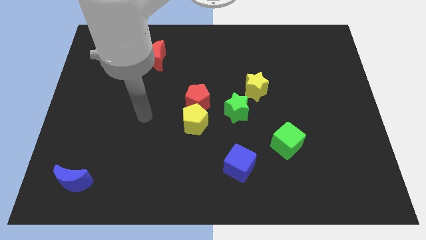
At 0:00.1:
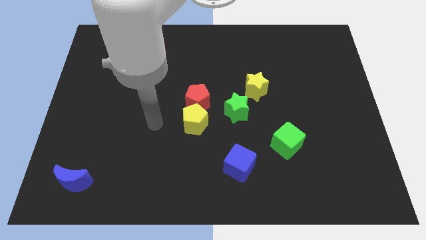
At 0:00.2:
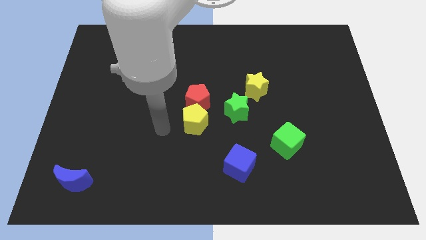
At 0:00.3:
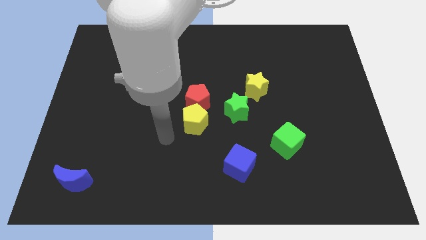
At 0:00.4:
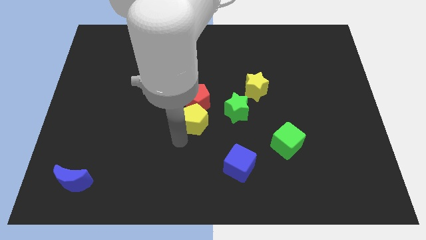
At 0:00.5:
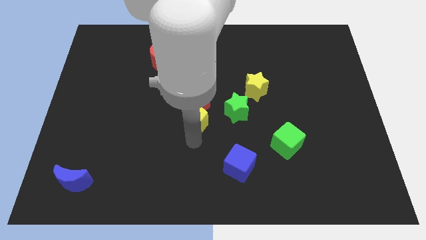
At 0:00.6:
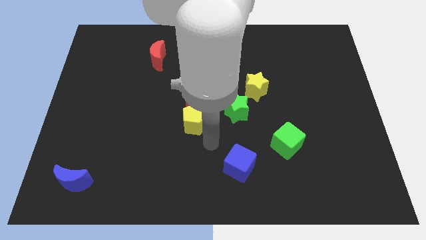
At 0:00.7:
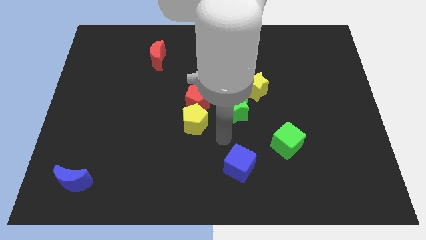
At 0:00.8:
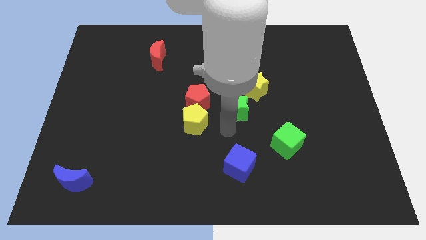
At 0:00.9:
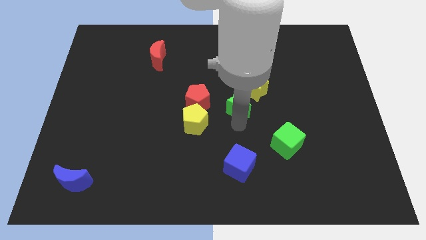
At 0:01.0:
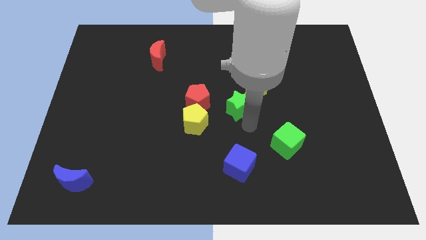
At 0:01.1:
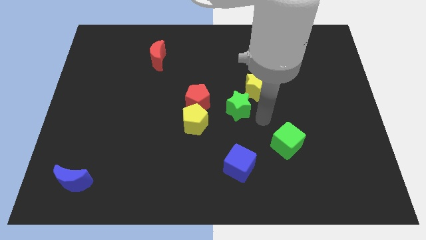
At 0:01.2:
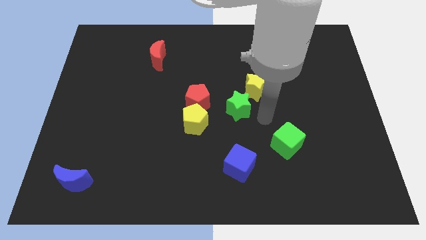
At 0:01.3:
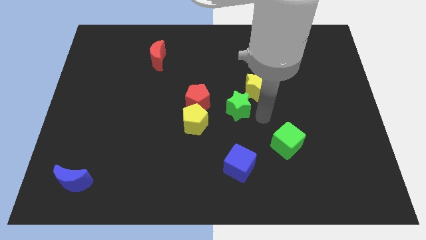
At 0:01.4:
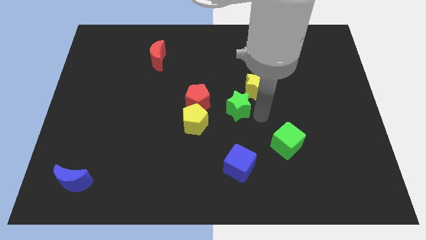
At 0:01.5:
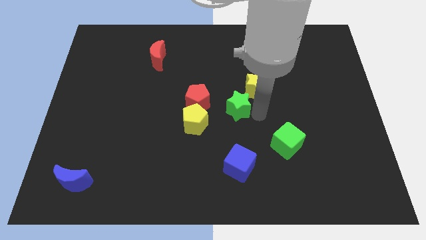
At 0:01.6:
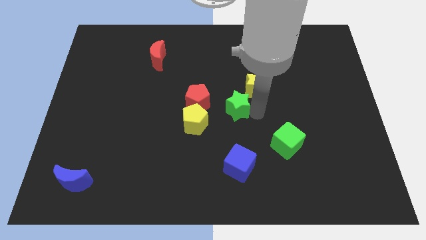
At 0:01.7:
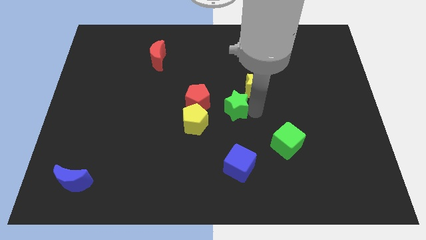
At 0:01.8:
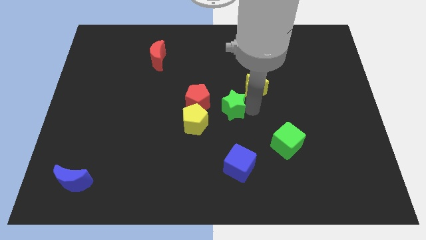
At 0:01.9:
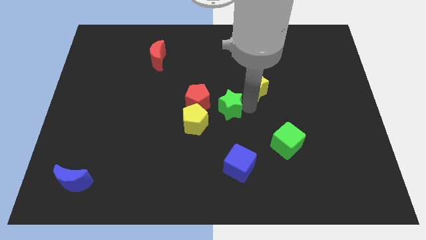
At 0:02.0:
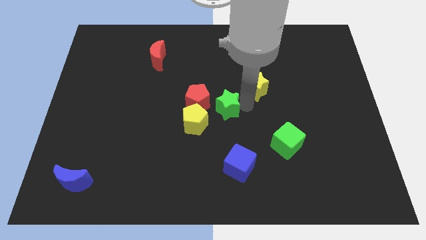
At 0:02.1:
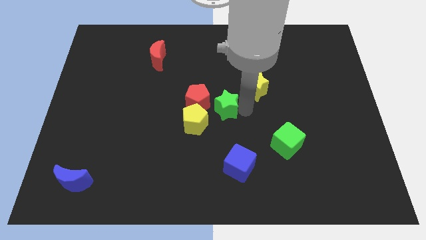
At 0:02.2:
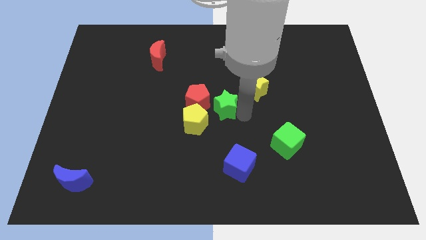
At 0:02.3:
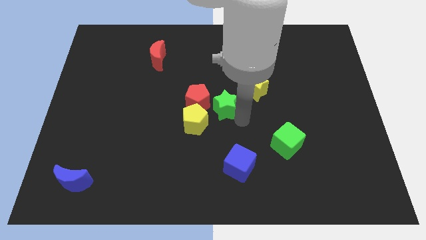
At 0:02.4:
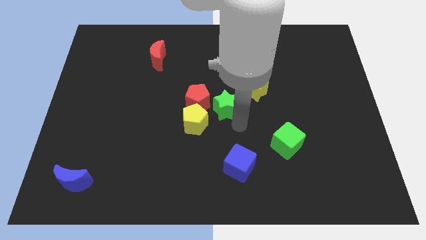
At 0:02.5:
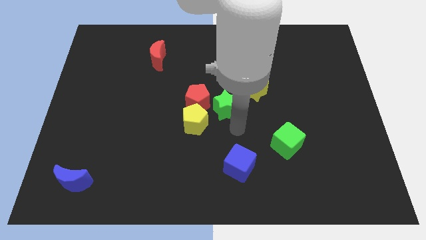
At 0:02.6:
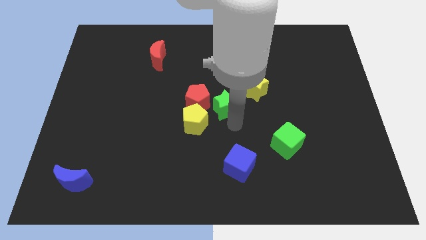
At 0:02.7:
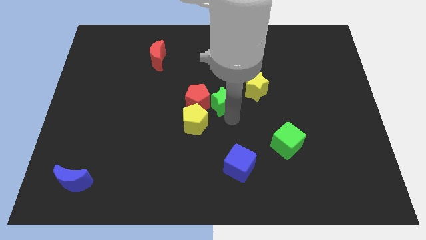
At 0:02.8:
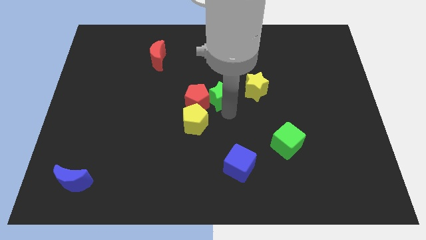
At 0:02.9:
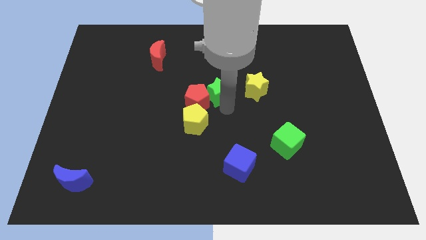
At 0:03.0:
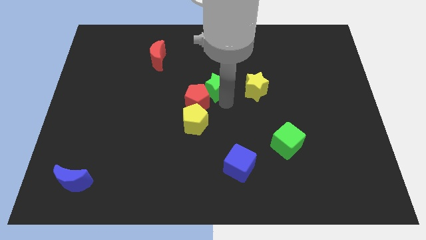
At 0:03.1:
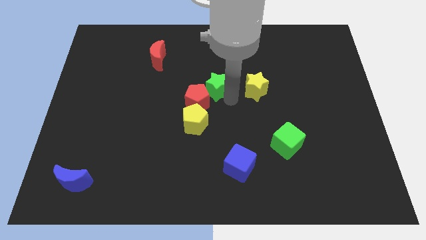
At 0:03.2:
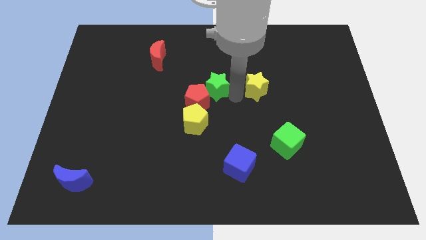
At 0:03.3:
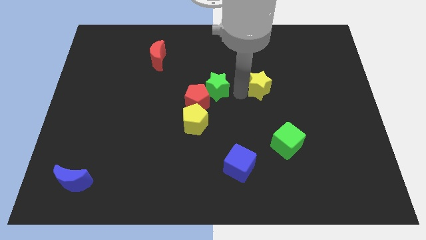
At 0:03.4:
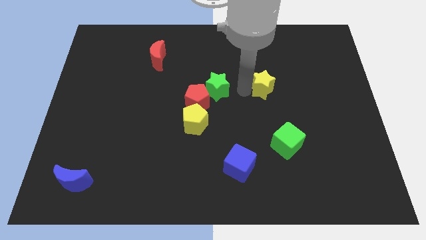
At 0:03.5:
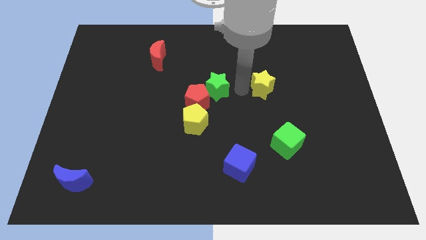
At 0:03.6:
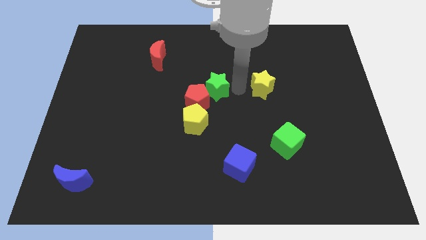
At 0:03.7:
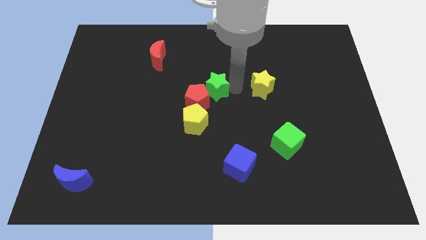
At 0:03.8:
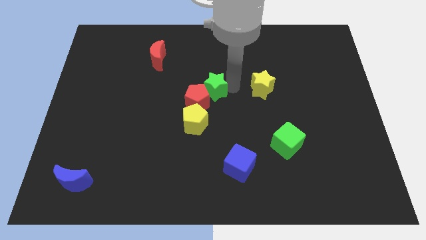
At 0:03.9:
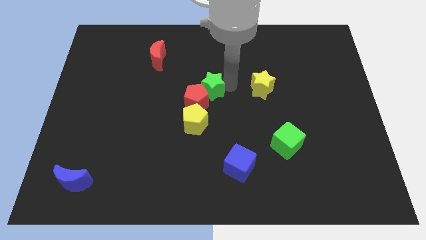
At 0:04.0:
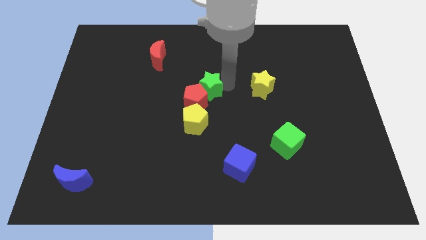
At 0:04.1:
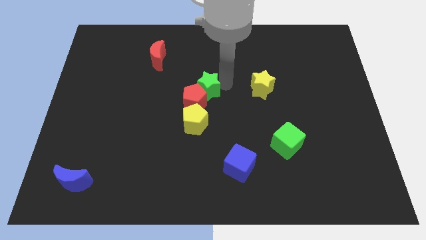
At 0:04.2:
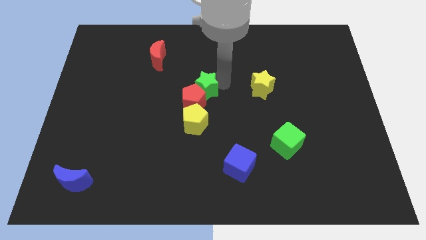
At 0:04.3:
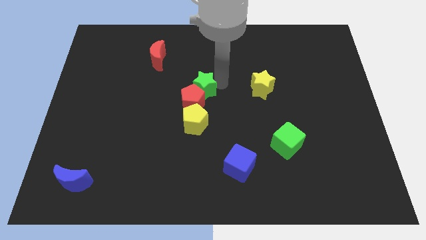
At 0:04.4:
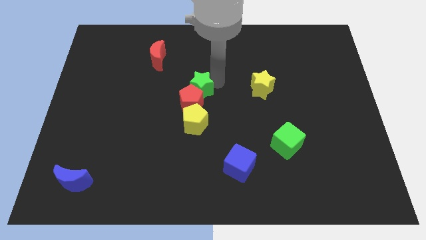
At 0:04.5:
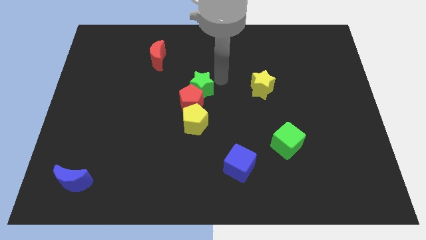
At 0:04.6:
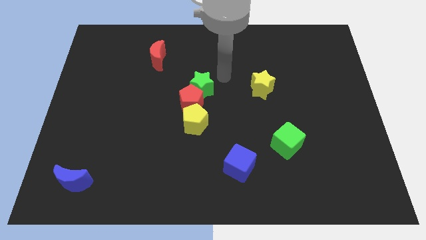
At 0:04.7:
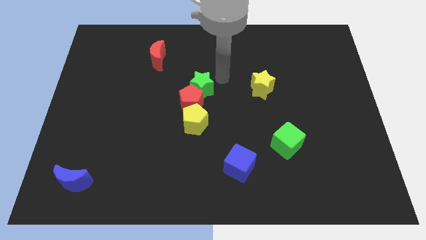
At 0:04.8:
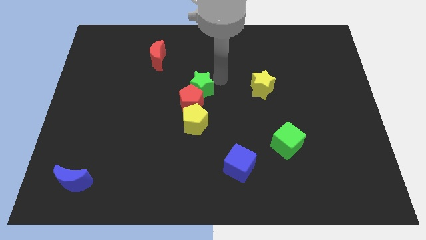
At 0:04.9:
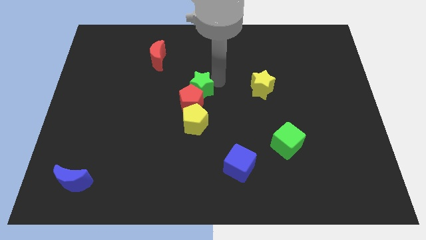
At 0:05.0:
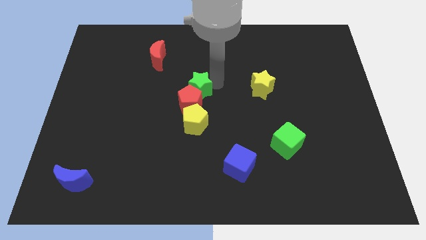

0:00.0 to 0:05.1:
slightly push the green star left

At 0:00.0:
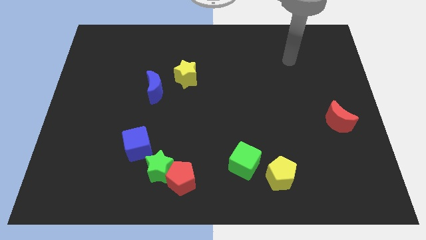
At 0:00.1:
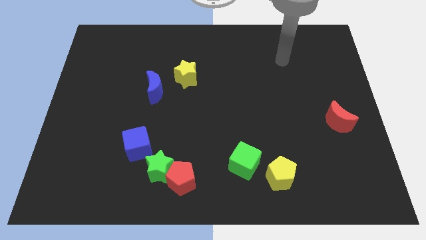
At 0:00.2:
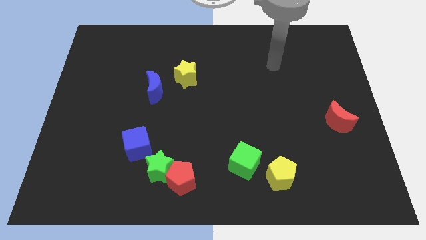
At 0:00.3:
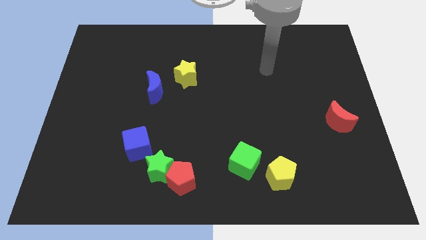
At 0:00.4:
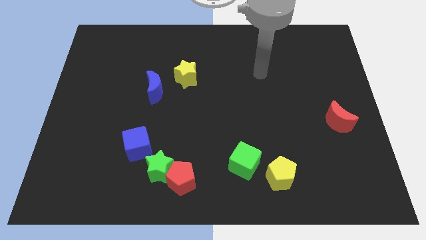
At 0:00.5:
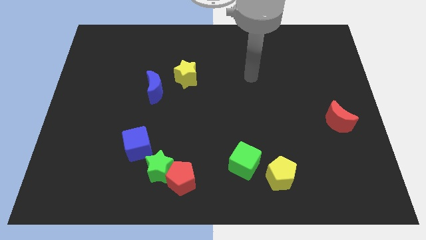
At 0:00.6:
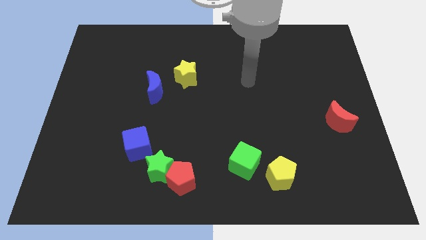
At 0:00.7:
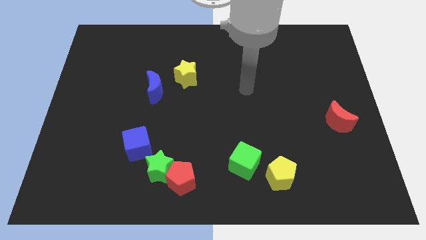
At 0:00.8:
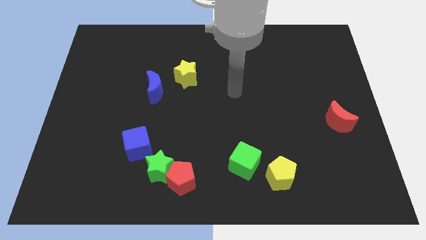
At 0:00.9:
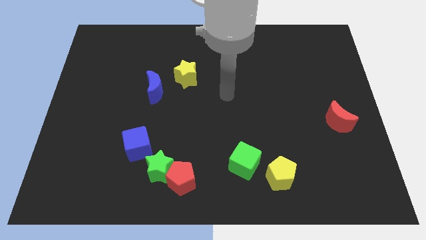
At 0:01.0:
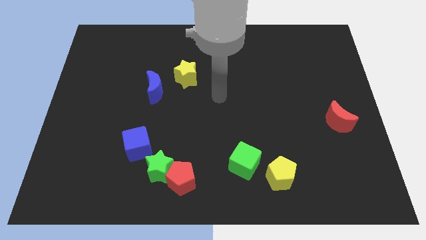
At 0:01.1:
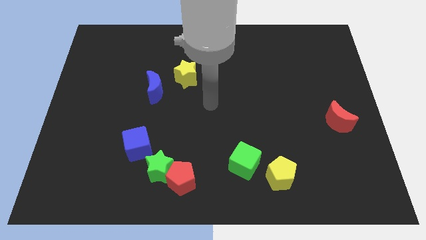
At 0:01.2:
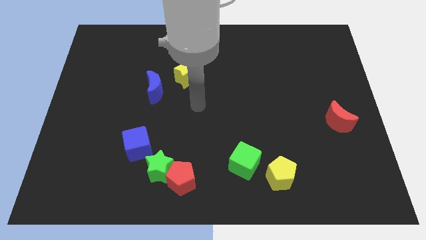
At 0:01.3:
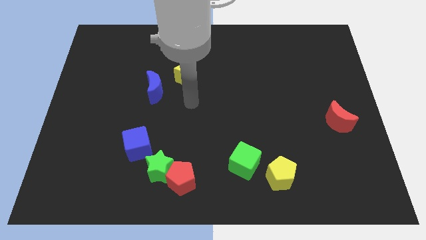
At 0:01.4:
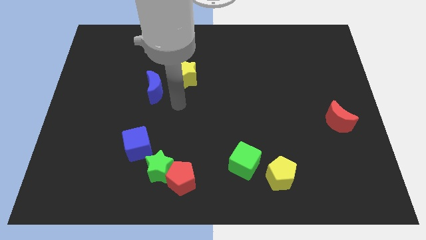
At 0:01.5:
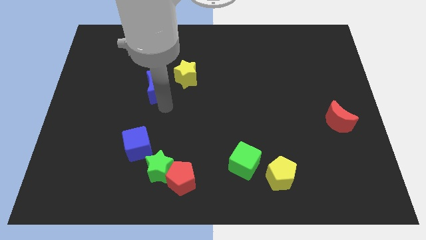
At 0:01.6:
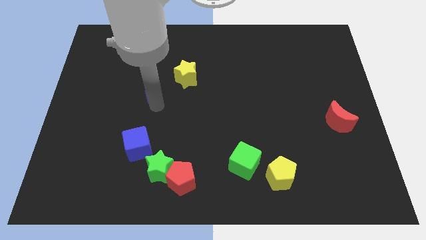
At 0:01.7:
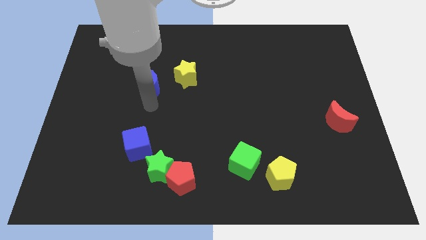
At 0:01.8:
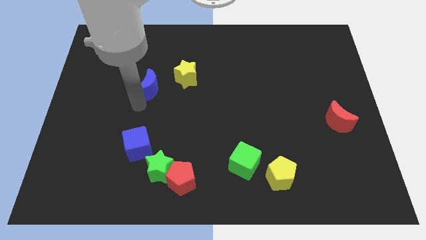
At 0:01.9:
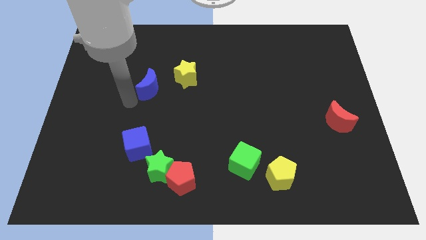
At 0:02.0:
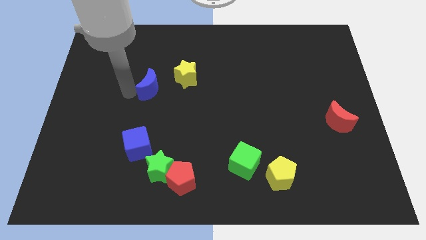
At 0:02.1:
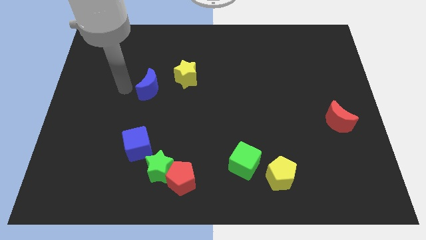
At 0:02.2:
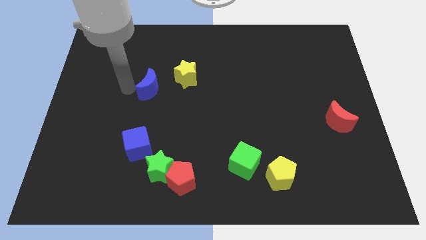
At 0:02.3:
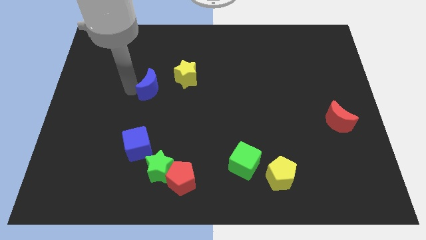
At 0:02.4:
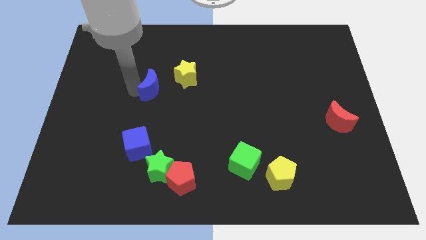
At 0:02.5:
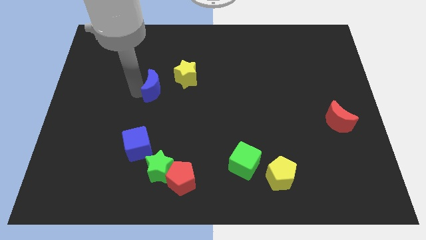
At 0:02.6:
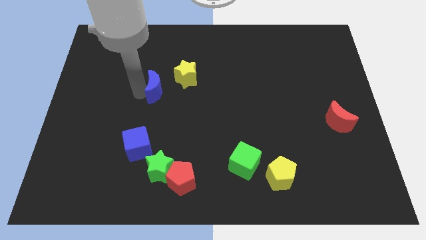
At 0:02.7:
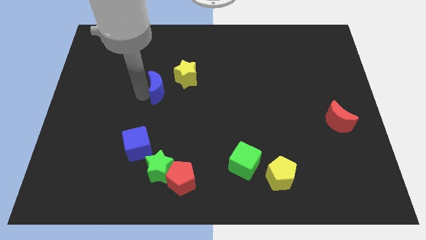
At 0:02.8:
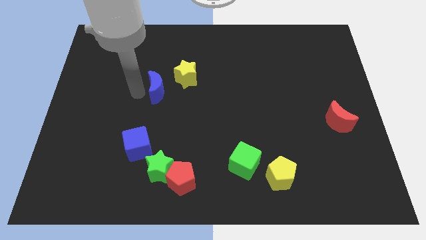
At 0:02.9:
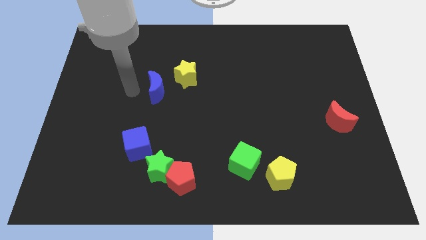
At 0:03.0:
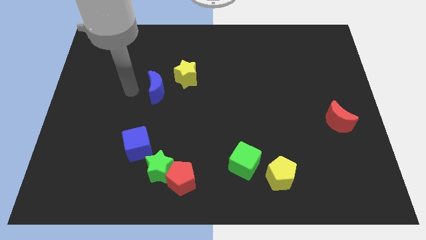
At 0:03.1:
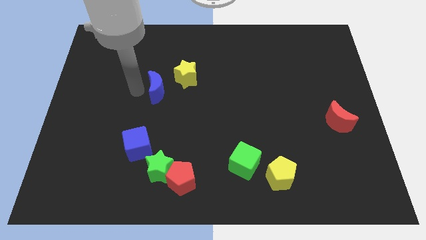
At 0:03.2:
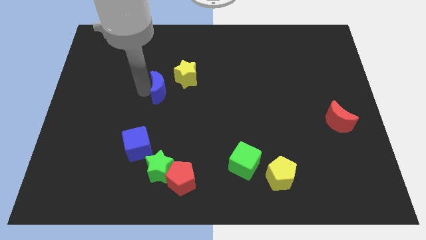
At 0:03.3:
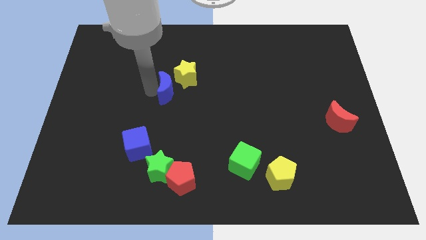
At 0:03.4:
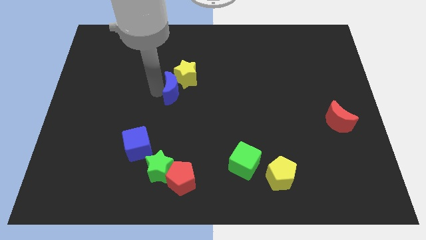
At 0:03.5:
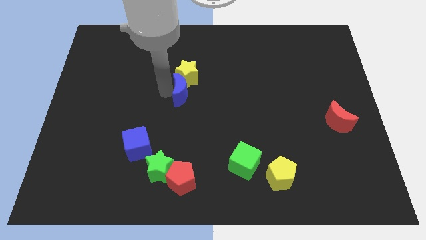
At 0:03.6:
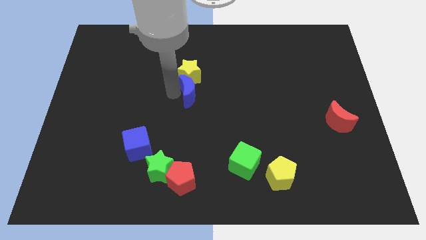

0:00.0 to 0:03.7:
push the blue moon a little right

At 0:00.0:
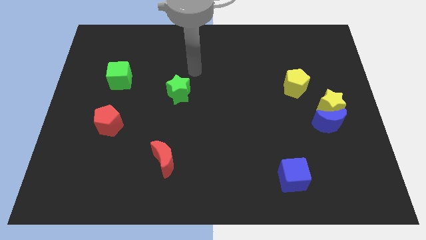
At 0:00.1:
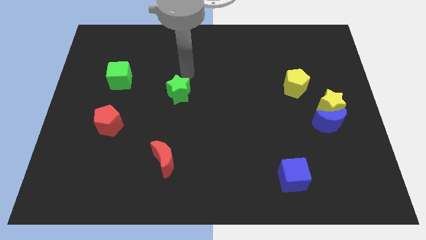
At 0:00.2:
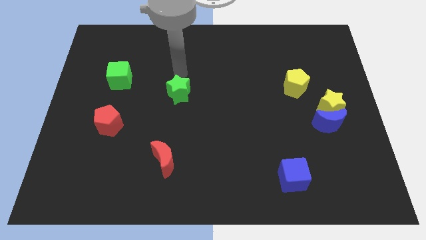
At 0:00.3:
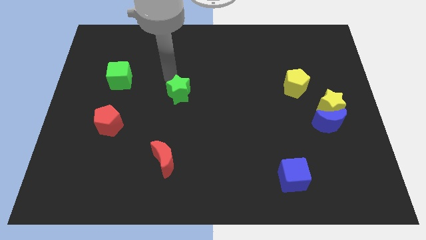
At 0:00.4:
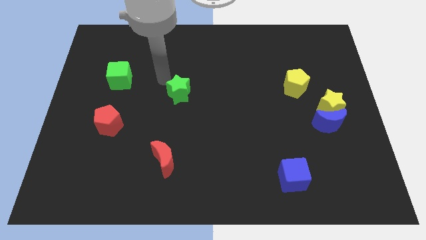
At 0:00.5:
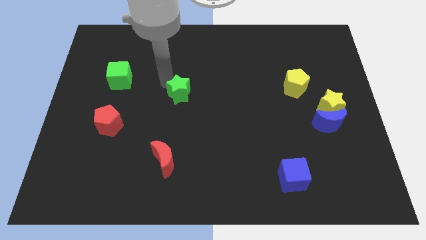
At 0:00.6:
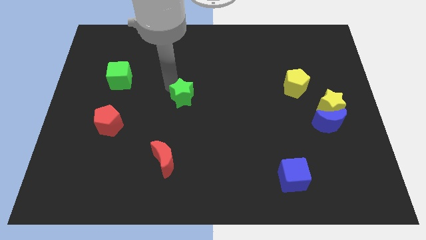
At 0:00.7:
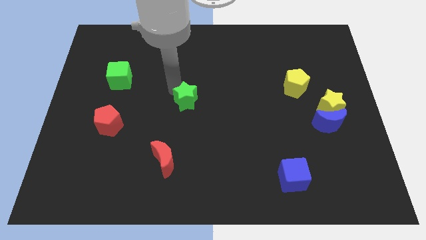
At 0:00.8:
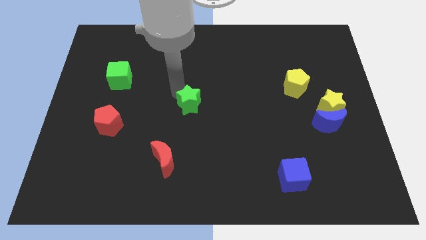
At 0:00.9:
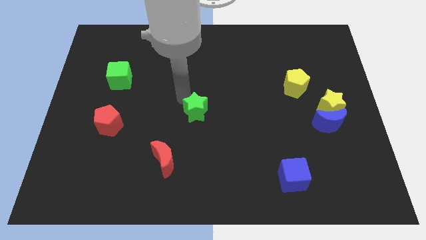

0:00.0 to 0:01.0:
slightly move the green star downwards and right
